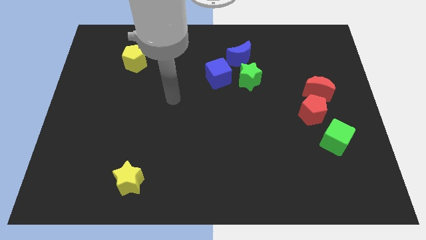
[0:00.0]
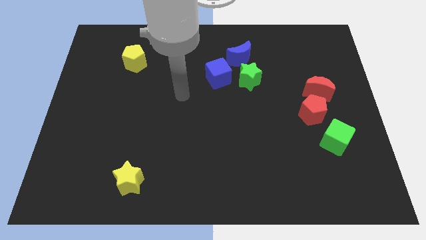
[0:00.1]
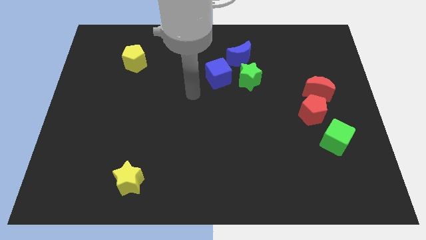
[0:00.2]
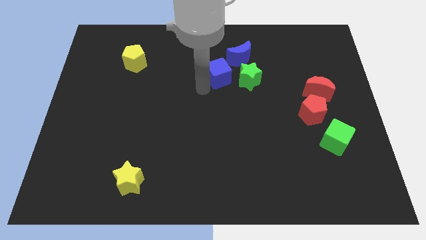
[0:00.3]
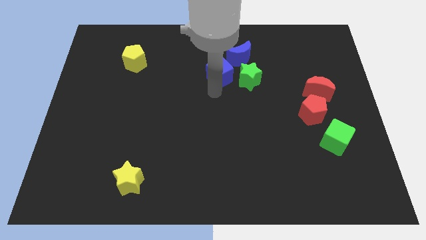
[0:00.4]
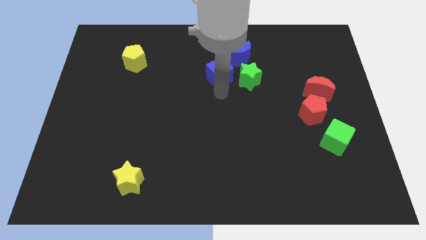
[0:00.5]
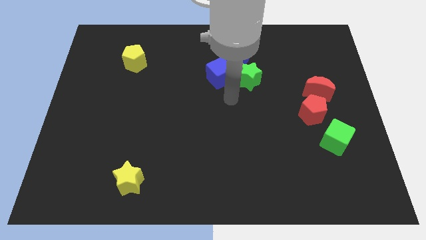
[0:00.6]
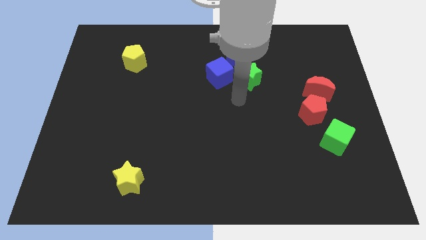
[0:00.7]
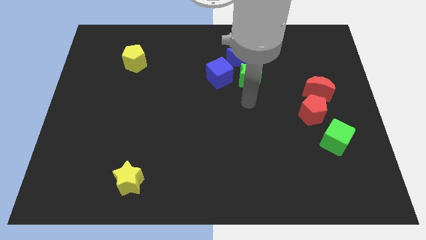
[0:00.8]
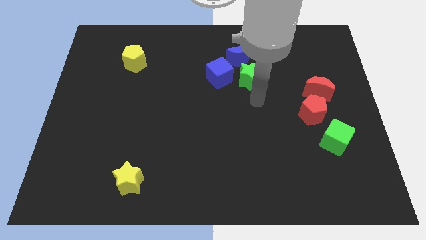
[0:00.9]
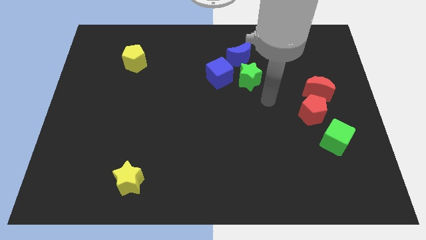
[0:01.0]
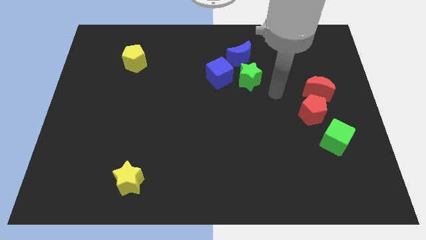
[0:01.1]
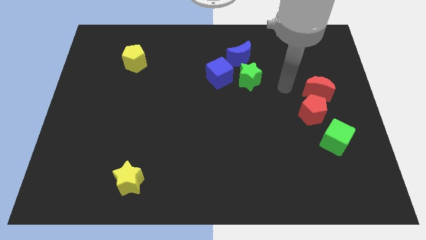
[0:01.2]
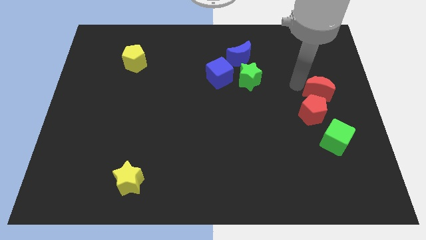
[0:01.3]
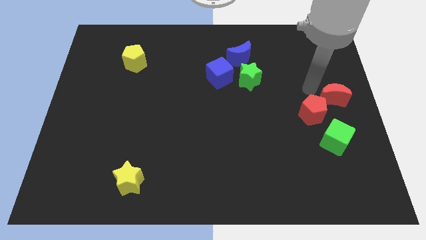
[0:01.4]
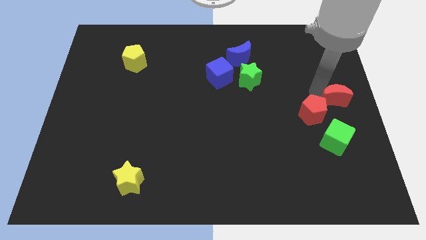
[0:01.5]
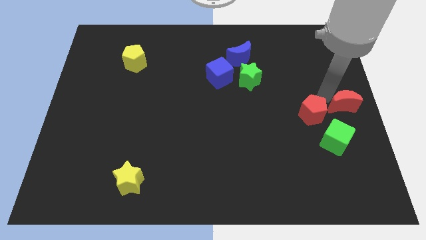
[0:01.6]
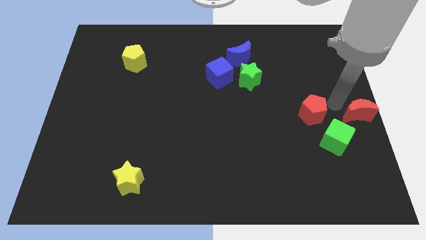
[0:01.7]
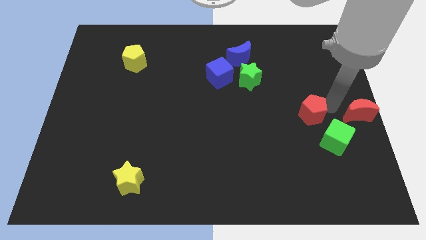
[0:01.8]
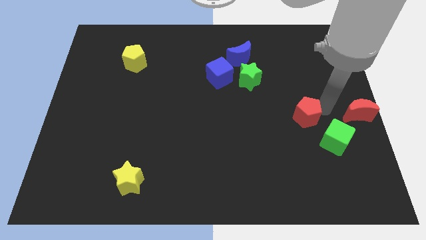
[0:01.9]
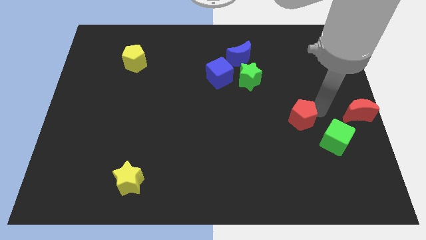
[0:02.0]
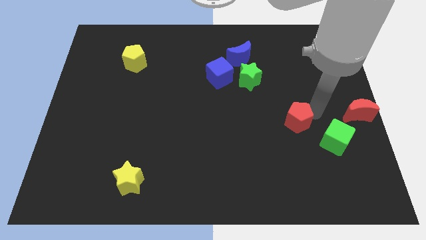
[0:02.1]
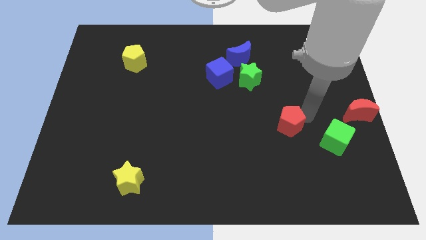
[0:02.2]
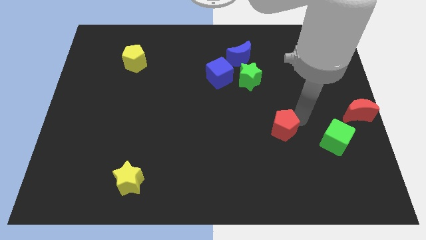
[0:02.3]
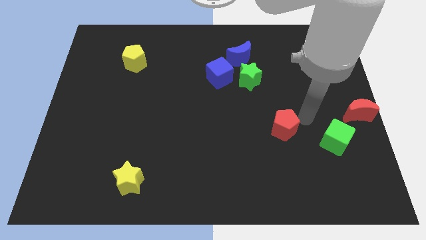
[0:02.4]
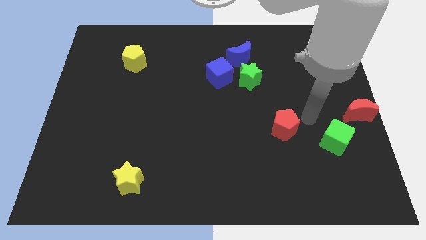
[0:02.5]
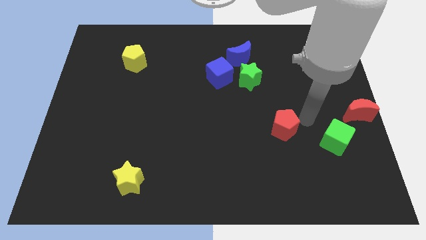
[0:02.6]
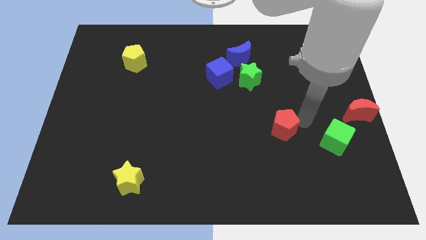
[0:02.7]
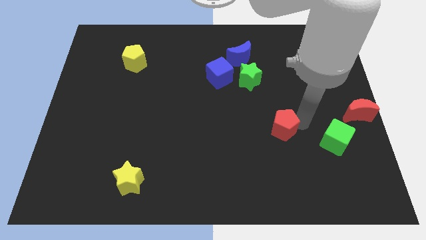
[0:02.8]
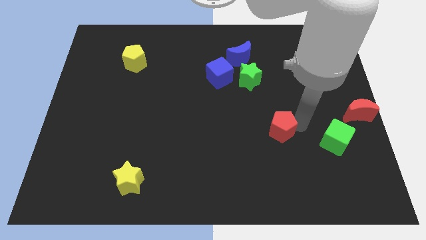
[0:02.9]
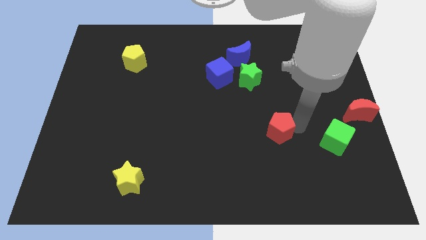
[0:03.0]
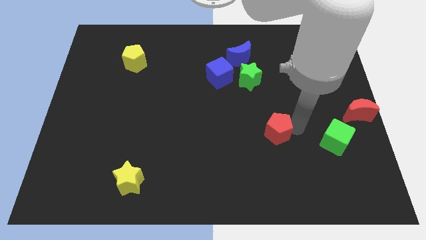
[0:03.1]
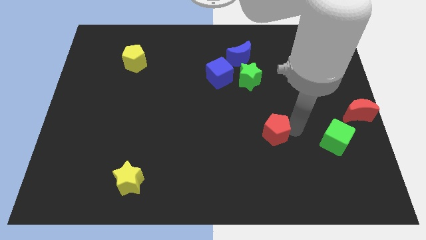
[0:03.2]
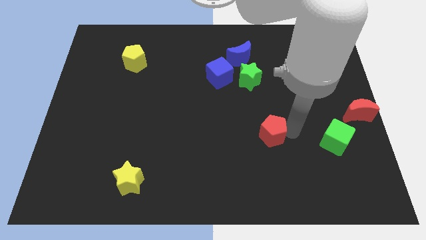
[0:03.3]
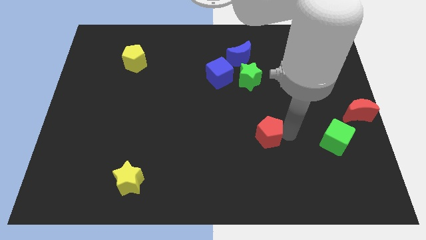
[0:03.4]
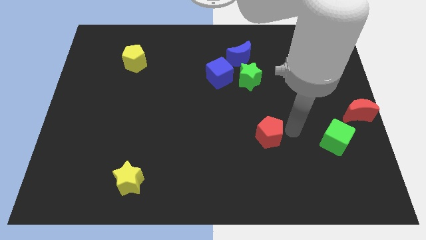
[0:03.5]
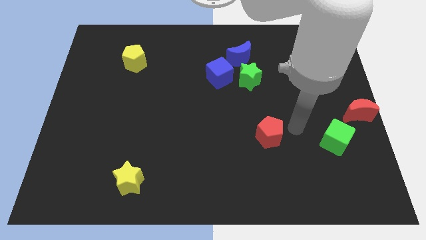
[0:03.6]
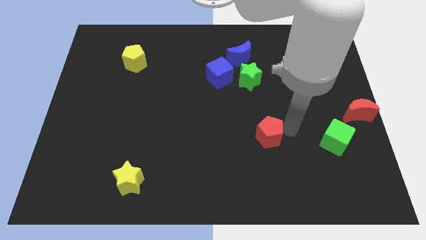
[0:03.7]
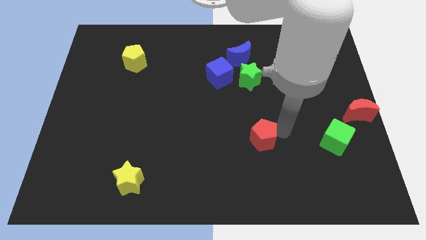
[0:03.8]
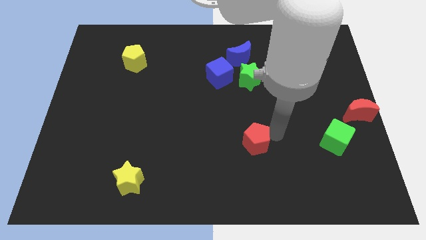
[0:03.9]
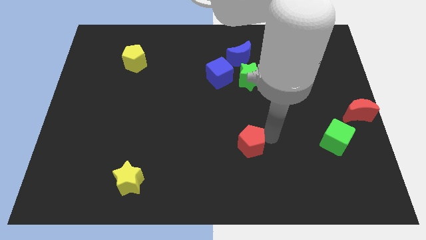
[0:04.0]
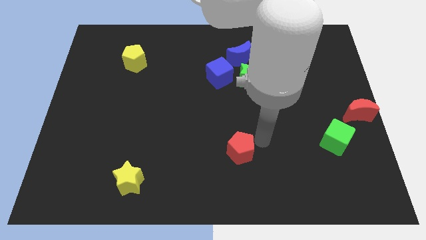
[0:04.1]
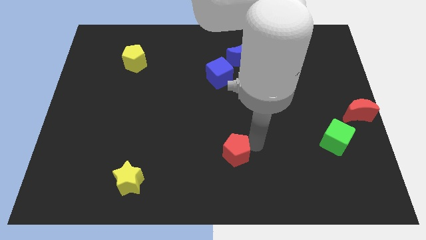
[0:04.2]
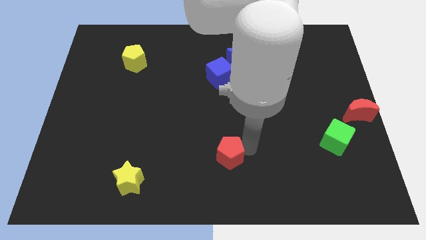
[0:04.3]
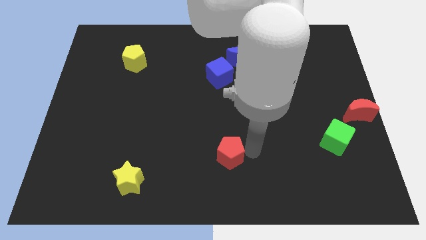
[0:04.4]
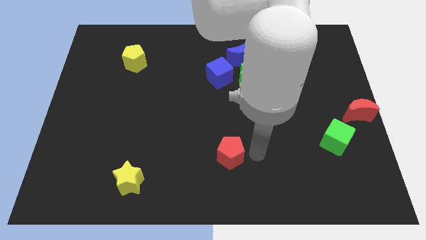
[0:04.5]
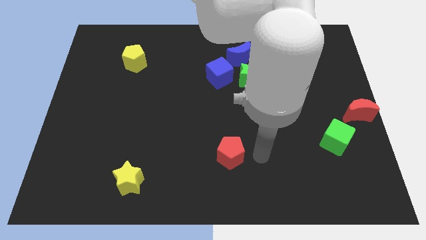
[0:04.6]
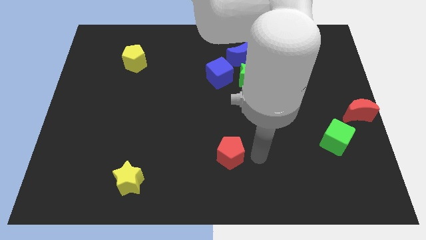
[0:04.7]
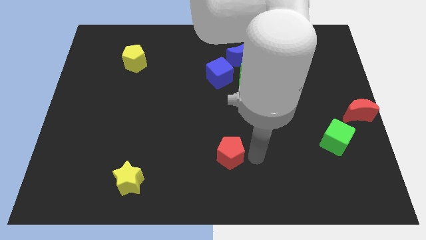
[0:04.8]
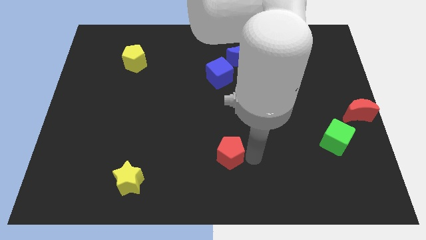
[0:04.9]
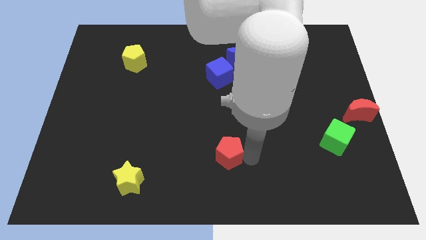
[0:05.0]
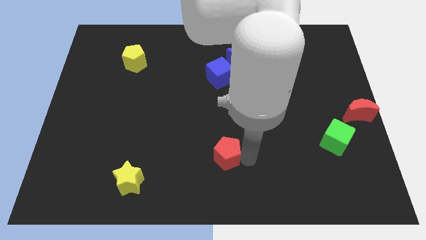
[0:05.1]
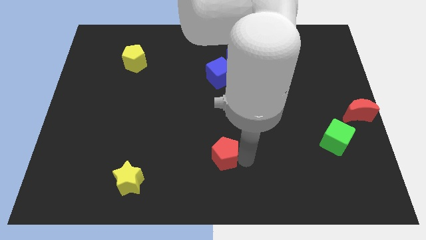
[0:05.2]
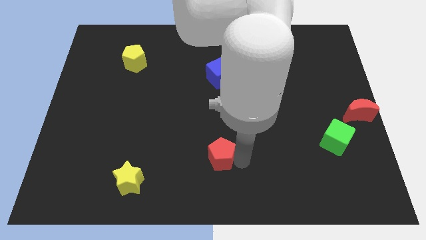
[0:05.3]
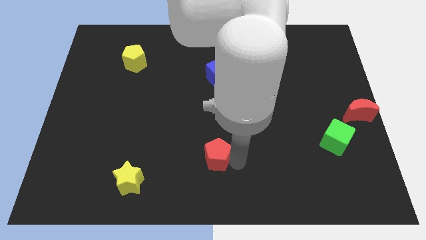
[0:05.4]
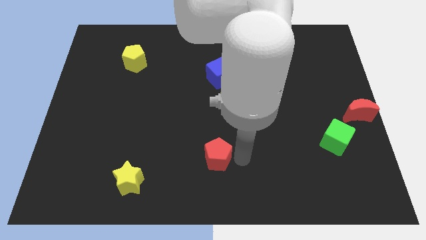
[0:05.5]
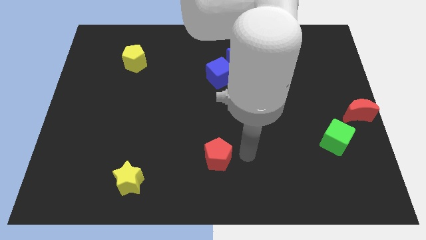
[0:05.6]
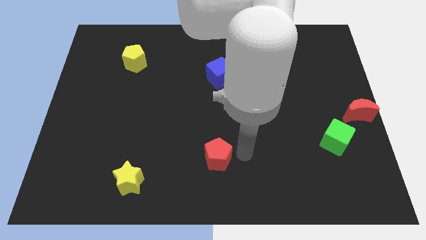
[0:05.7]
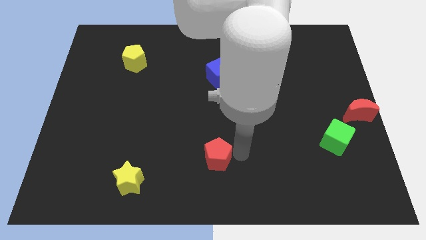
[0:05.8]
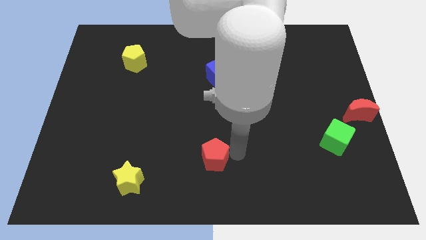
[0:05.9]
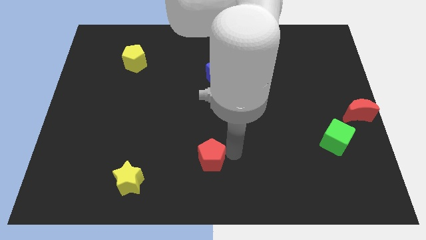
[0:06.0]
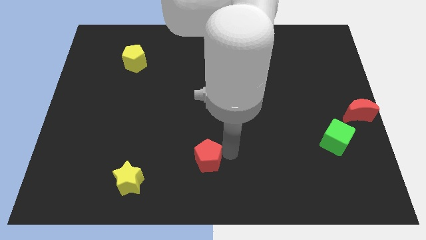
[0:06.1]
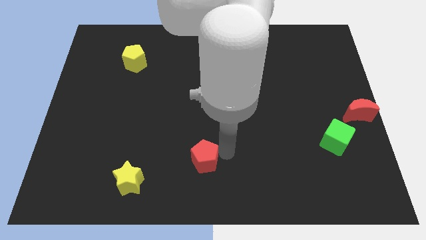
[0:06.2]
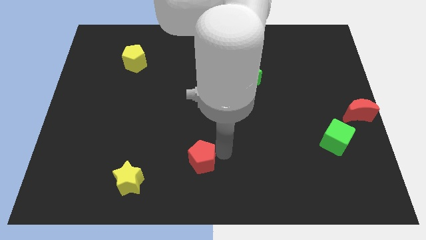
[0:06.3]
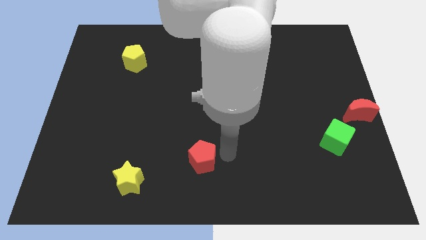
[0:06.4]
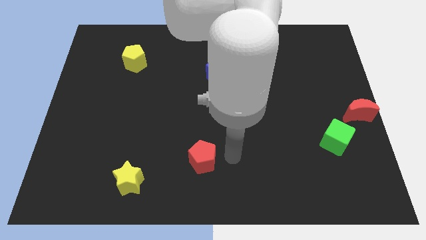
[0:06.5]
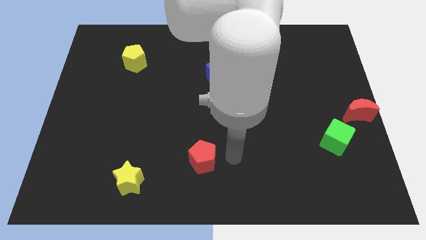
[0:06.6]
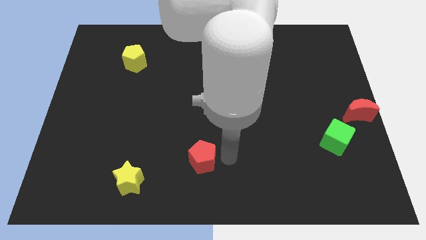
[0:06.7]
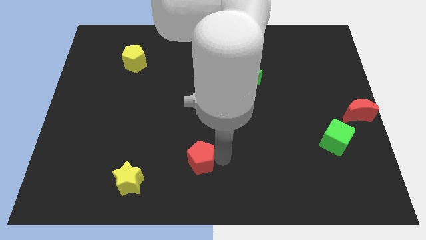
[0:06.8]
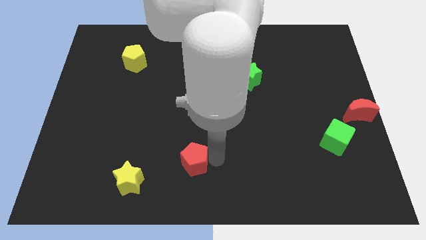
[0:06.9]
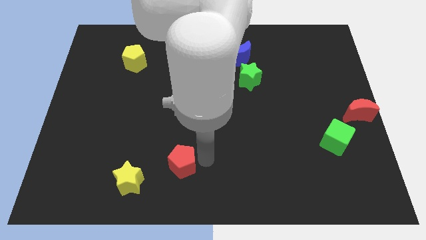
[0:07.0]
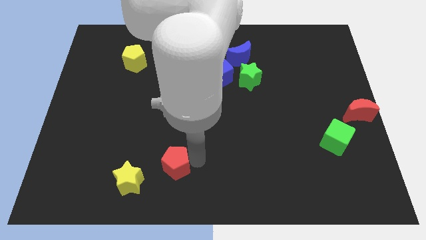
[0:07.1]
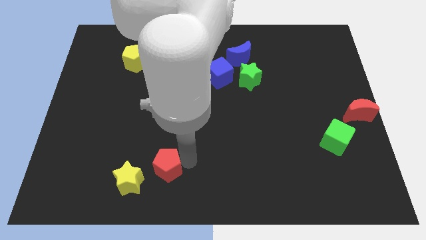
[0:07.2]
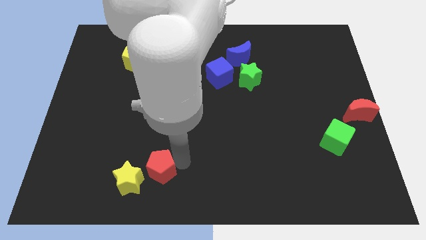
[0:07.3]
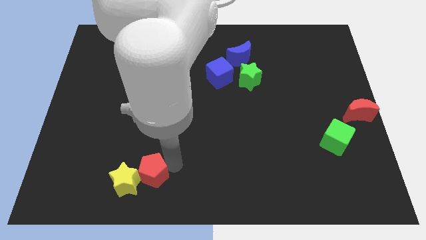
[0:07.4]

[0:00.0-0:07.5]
push the red pentagon close to the yellow star
